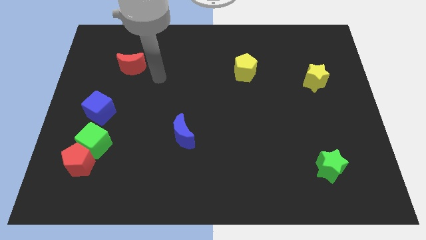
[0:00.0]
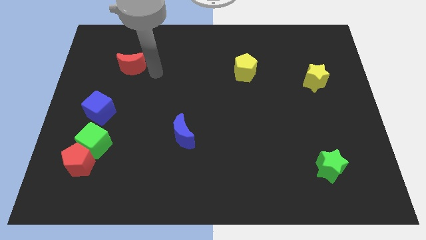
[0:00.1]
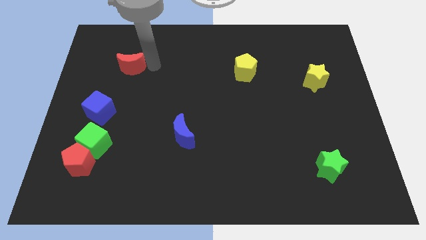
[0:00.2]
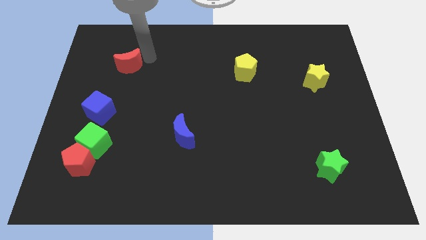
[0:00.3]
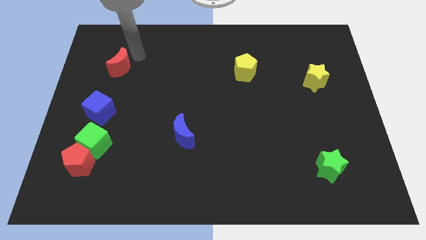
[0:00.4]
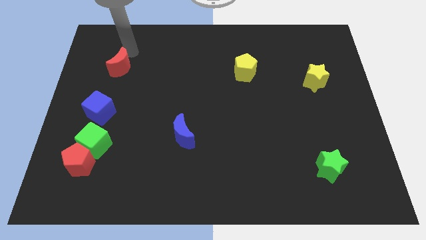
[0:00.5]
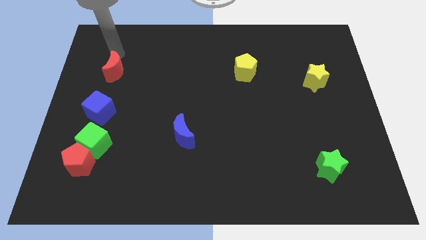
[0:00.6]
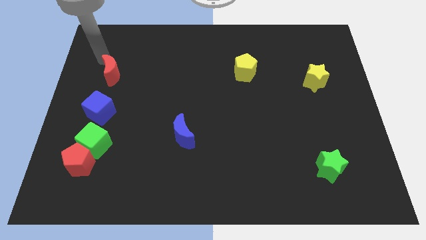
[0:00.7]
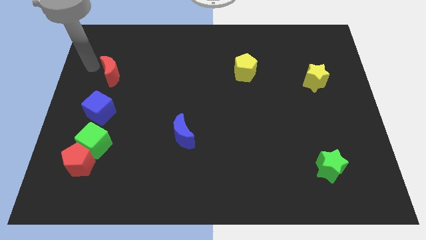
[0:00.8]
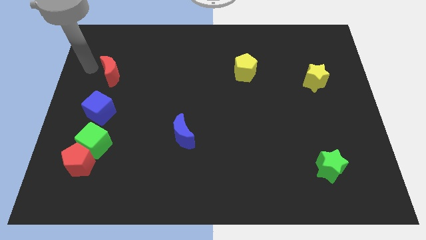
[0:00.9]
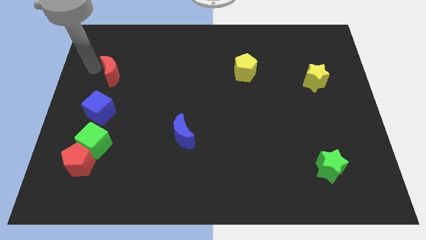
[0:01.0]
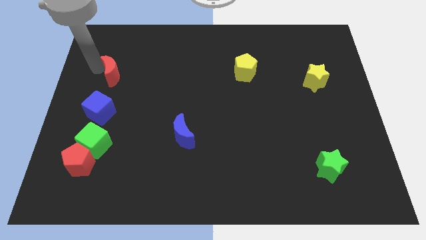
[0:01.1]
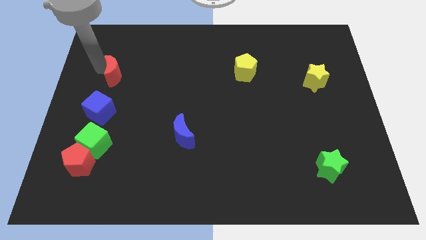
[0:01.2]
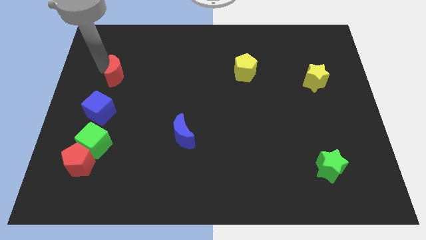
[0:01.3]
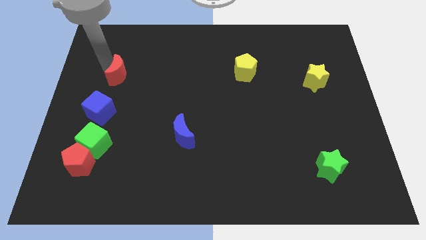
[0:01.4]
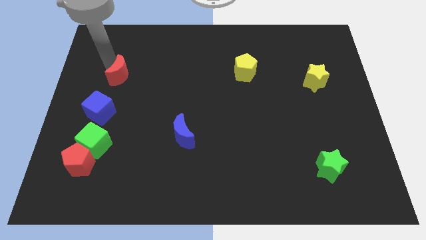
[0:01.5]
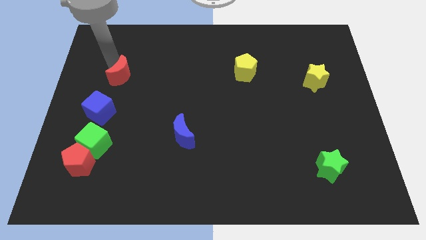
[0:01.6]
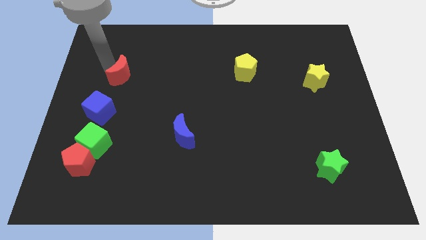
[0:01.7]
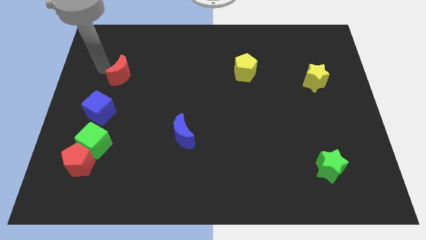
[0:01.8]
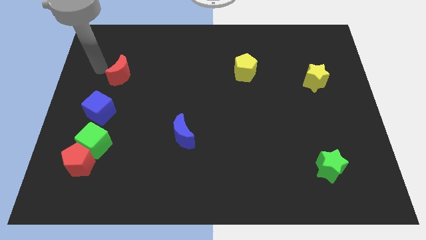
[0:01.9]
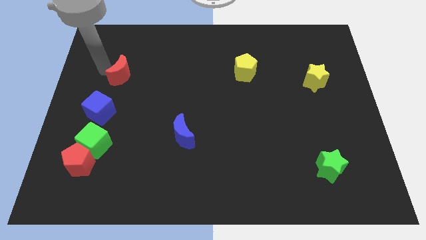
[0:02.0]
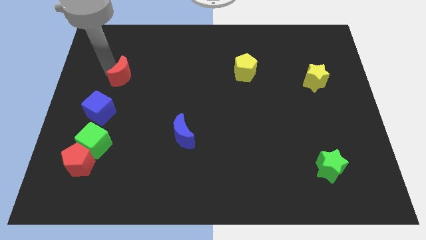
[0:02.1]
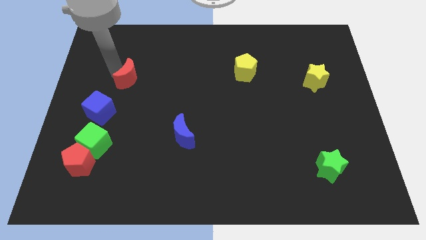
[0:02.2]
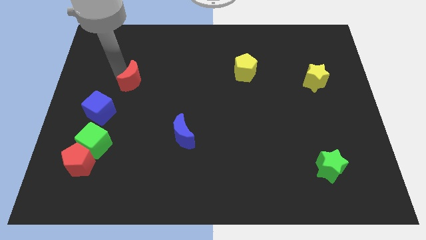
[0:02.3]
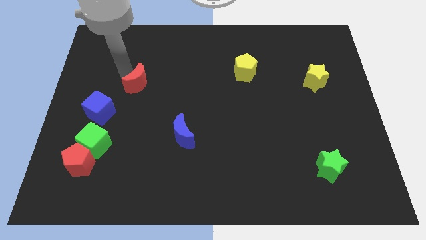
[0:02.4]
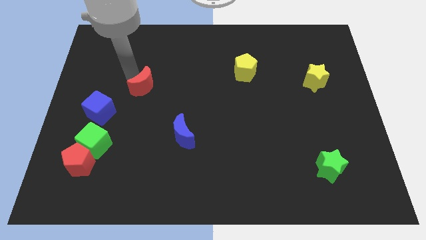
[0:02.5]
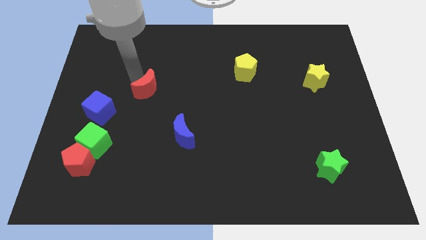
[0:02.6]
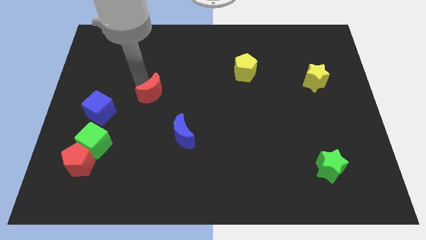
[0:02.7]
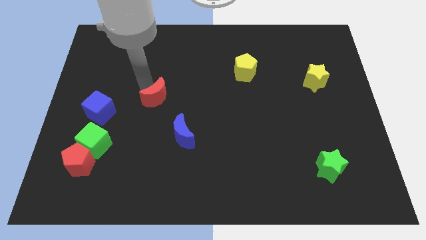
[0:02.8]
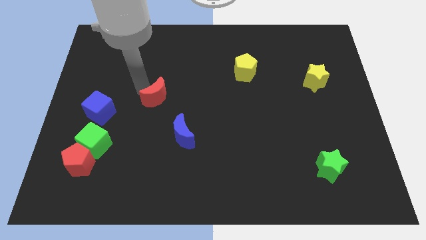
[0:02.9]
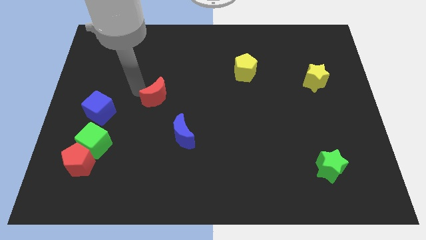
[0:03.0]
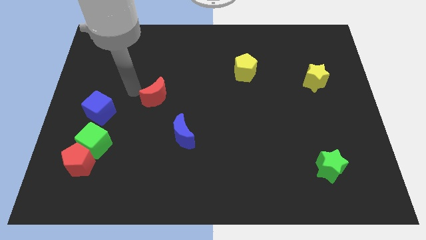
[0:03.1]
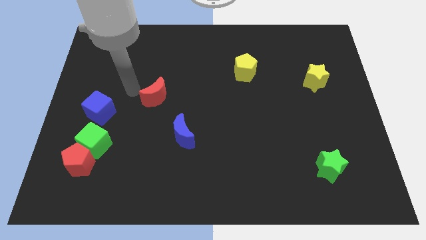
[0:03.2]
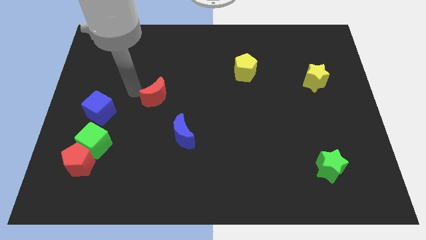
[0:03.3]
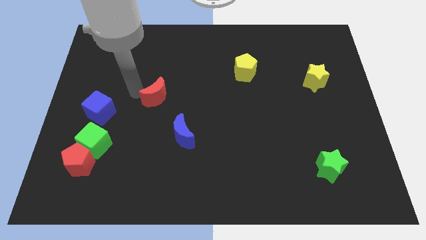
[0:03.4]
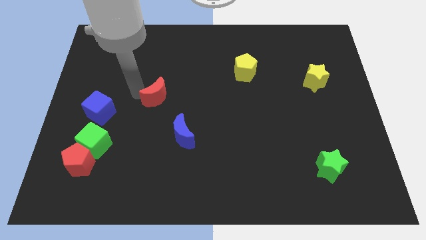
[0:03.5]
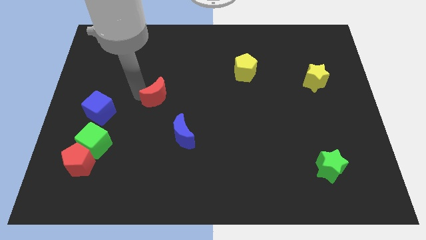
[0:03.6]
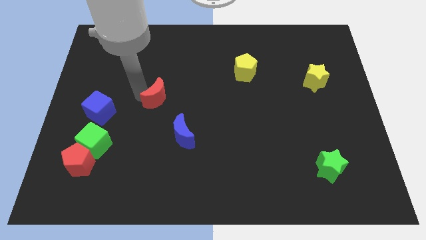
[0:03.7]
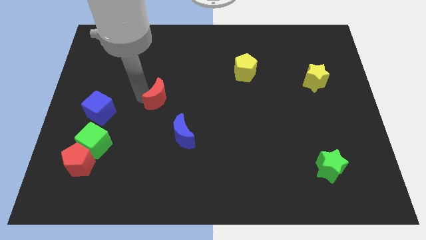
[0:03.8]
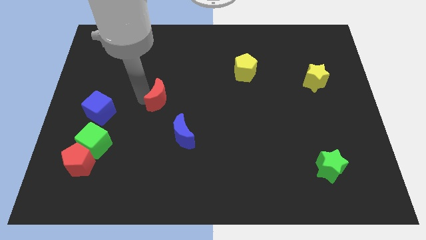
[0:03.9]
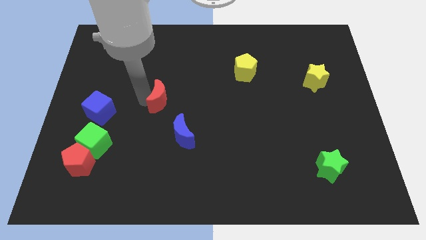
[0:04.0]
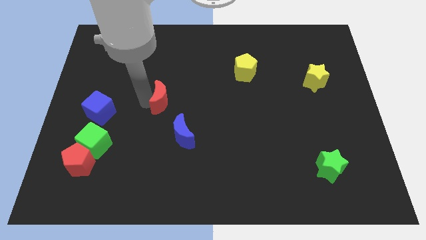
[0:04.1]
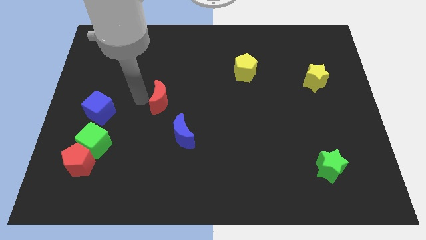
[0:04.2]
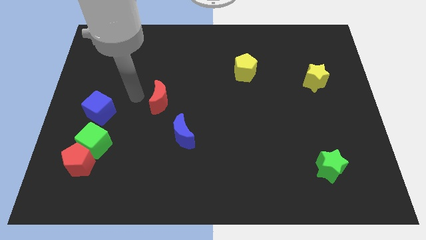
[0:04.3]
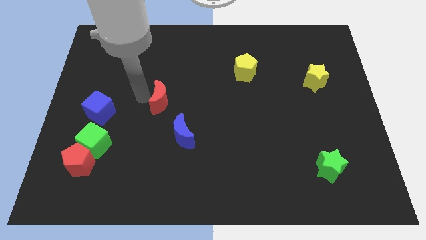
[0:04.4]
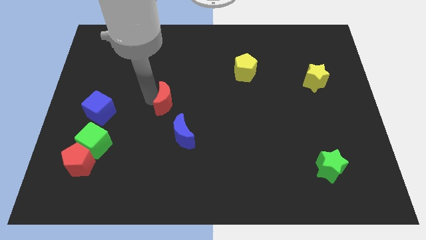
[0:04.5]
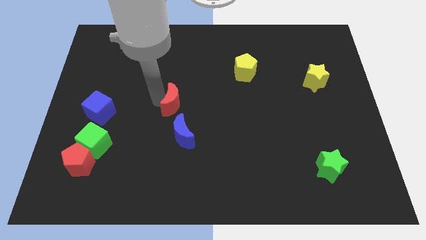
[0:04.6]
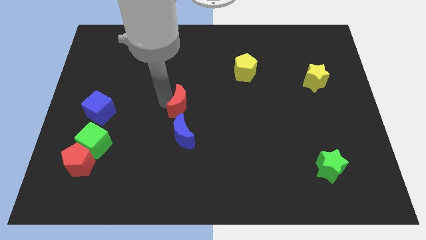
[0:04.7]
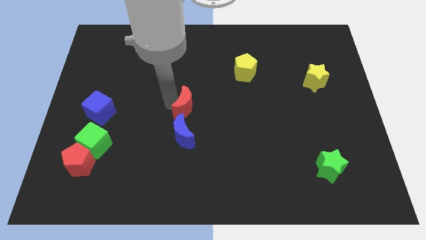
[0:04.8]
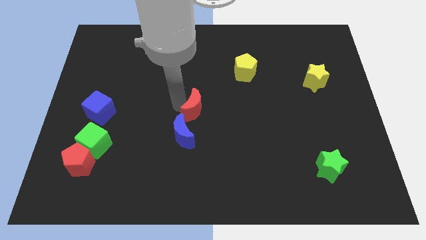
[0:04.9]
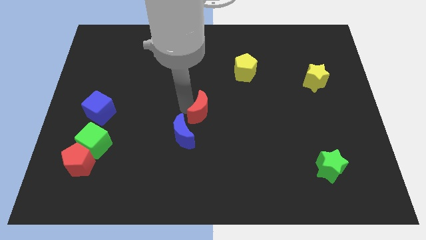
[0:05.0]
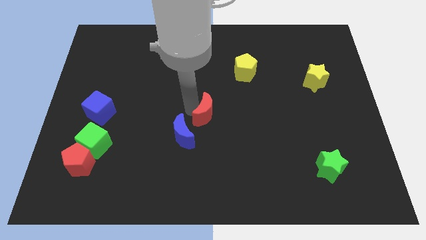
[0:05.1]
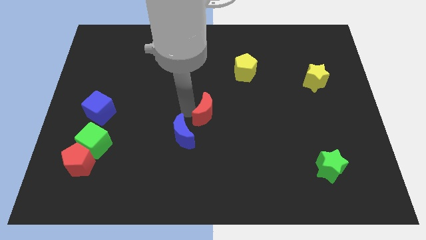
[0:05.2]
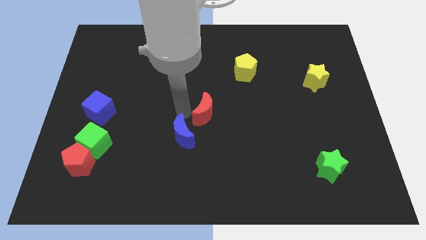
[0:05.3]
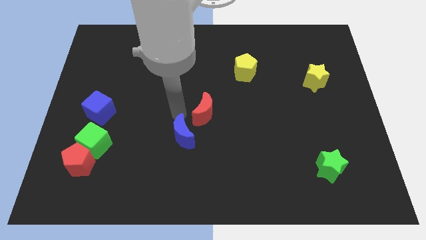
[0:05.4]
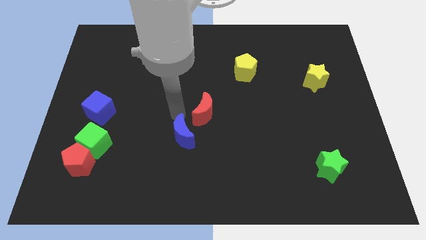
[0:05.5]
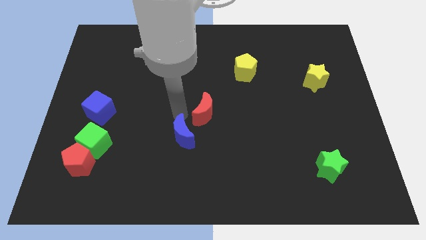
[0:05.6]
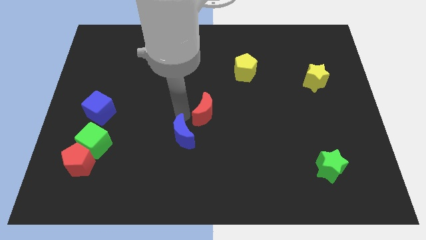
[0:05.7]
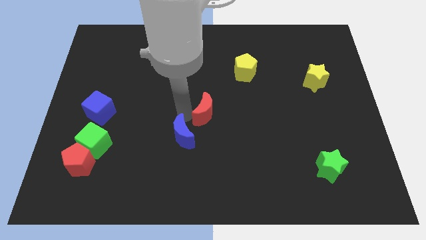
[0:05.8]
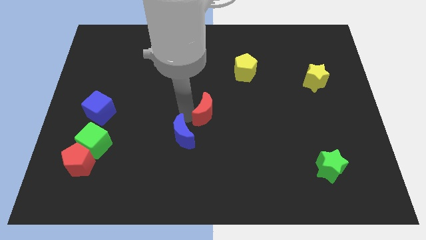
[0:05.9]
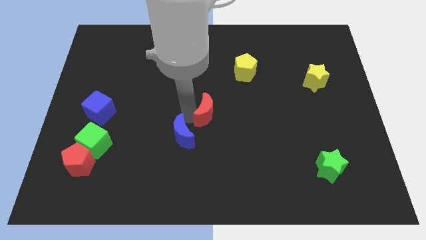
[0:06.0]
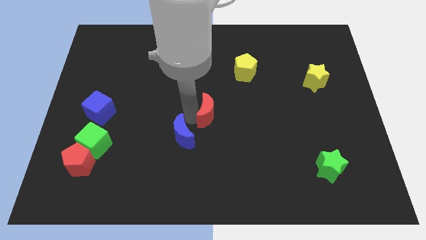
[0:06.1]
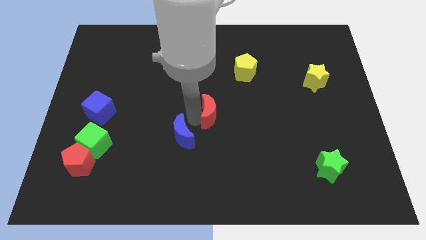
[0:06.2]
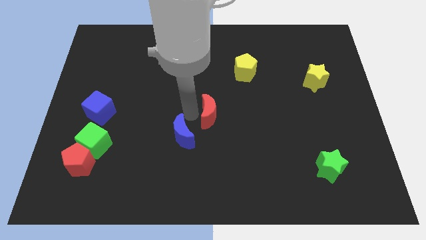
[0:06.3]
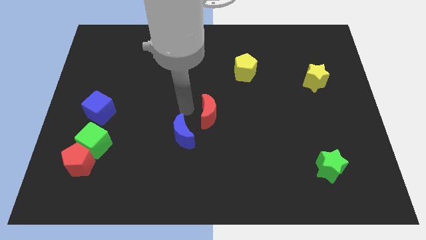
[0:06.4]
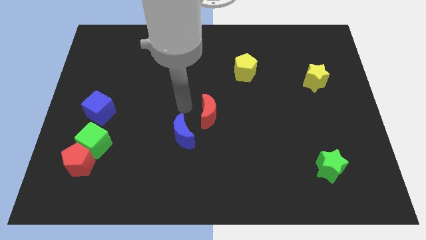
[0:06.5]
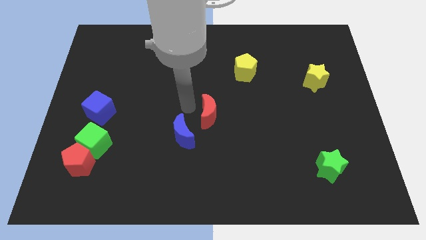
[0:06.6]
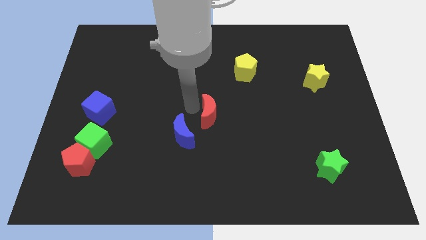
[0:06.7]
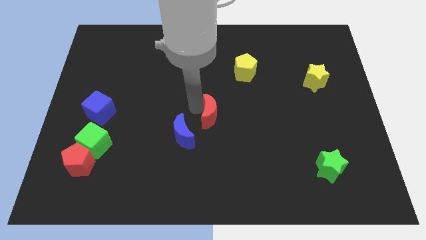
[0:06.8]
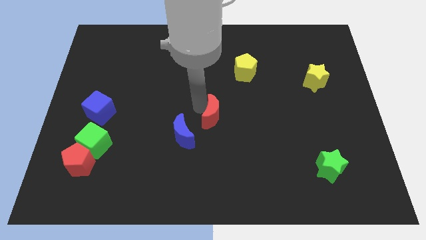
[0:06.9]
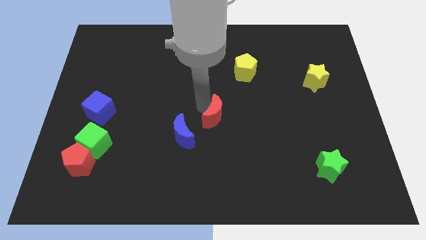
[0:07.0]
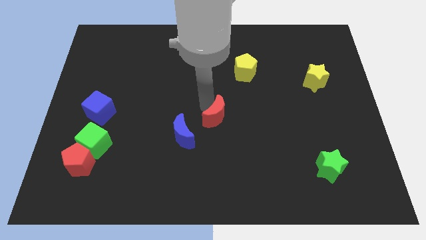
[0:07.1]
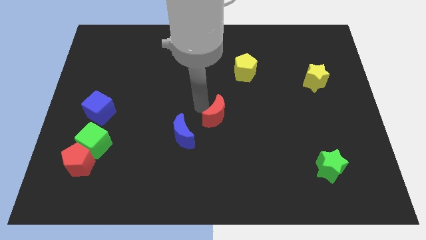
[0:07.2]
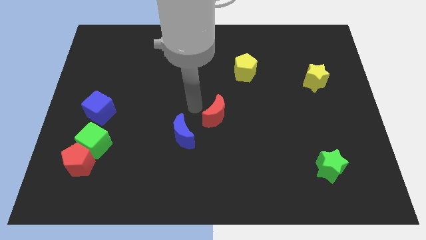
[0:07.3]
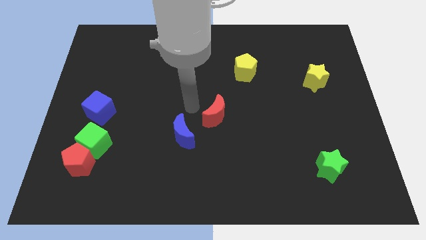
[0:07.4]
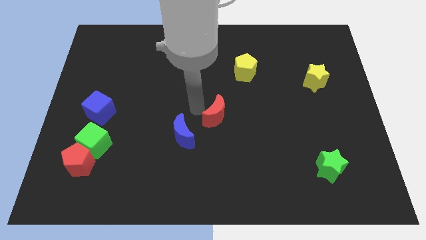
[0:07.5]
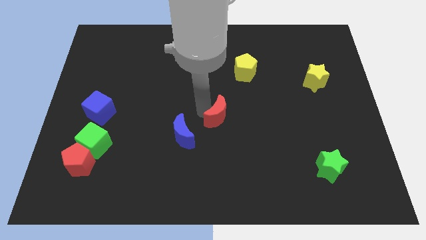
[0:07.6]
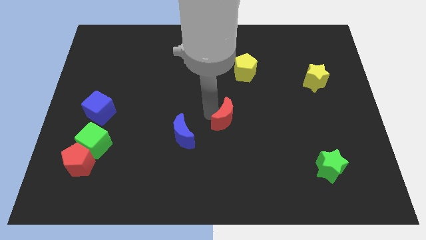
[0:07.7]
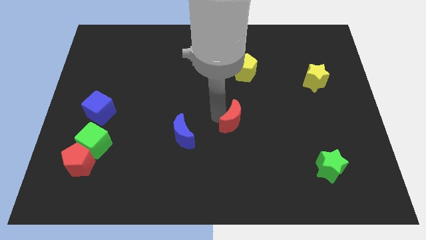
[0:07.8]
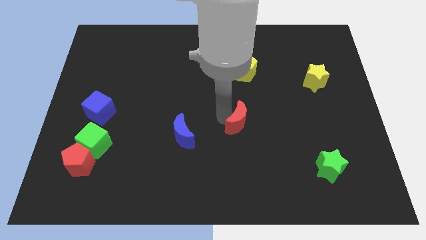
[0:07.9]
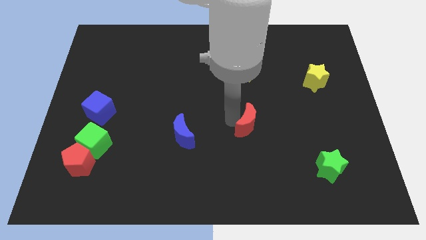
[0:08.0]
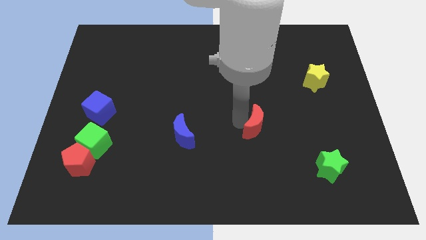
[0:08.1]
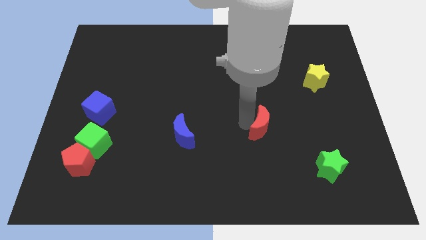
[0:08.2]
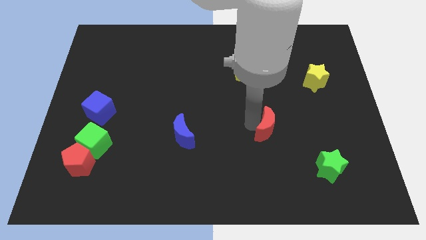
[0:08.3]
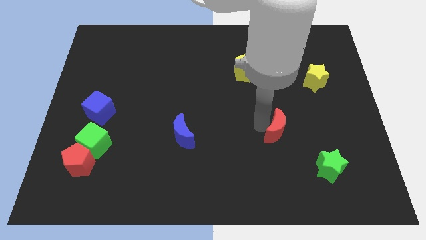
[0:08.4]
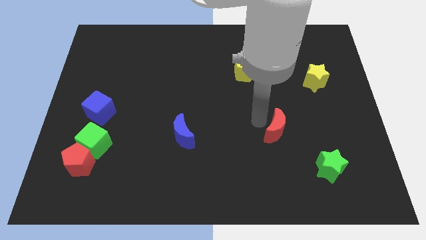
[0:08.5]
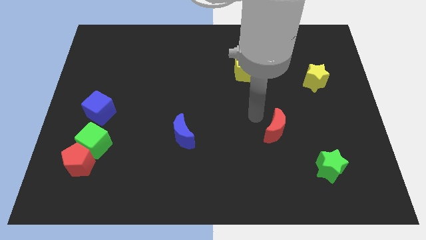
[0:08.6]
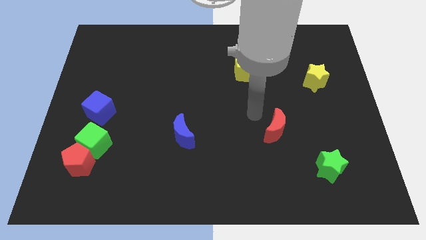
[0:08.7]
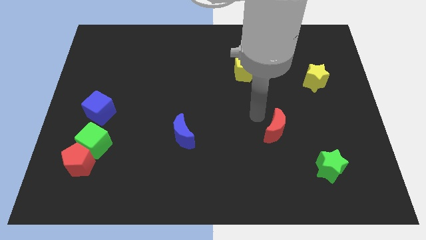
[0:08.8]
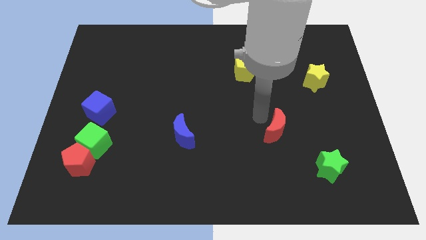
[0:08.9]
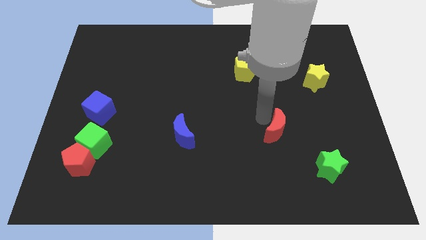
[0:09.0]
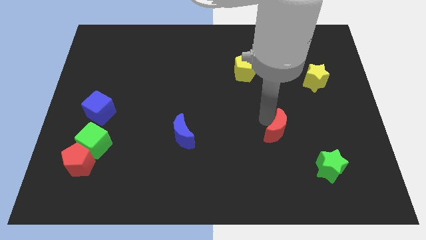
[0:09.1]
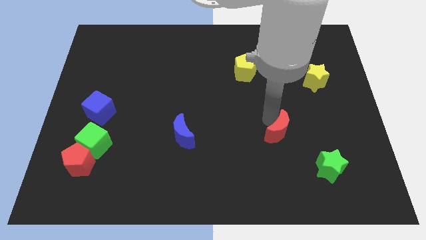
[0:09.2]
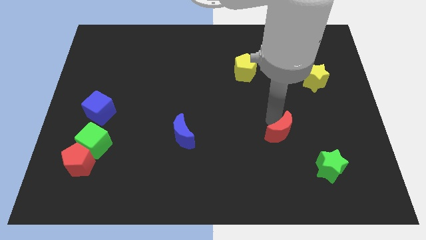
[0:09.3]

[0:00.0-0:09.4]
push the red moon diagonally up and to the left of the green star
